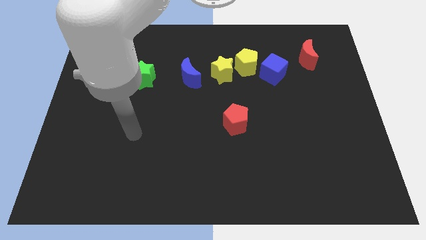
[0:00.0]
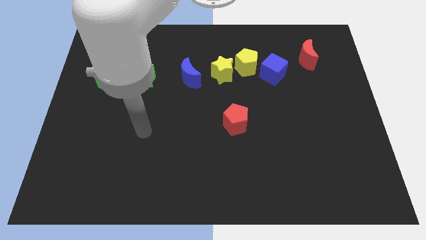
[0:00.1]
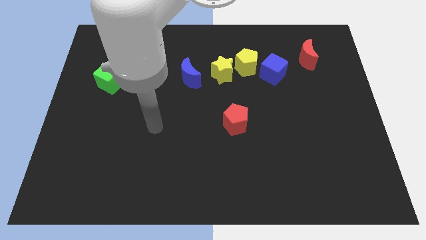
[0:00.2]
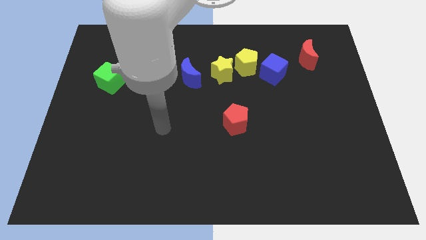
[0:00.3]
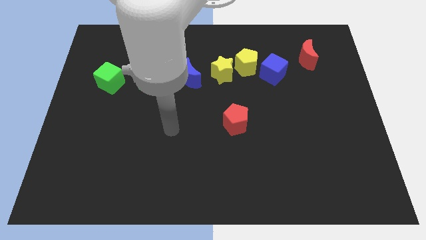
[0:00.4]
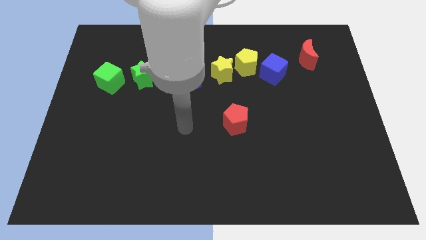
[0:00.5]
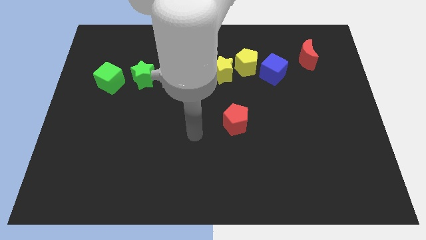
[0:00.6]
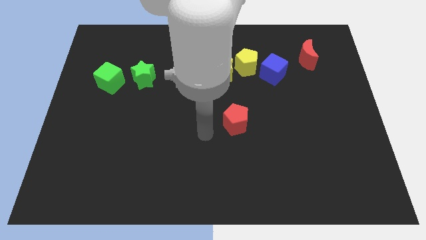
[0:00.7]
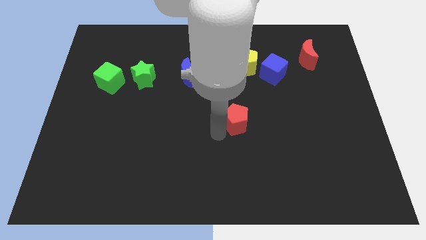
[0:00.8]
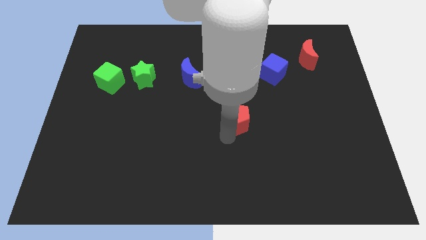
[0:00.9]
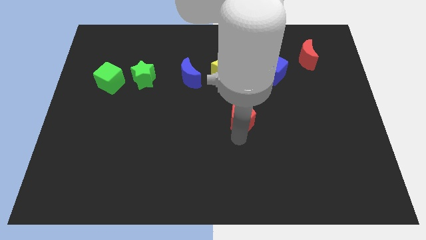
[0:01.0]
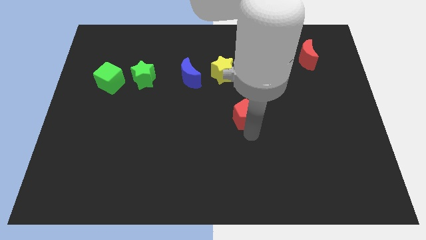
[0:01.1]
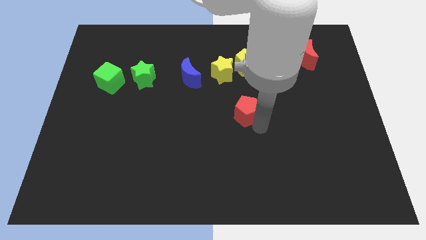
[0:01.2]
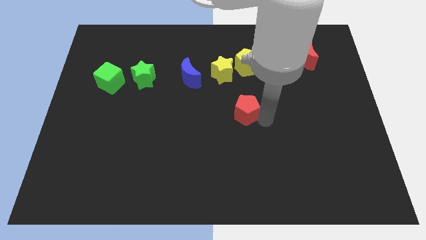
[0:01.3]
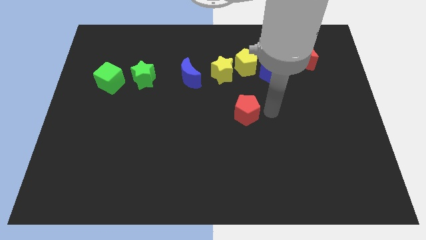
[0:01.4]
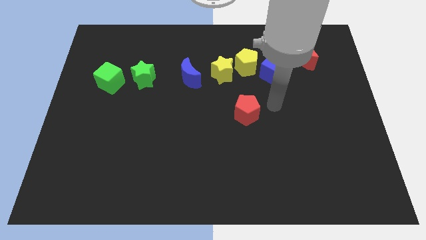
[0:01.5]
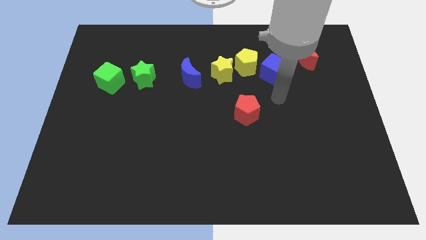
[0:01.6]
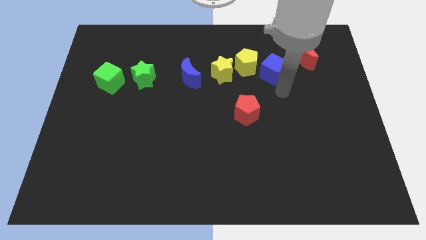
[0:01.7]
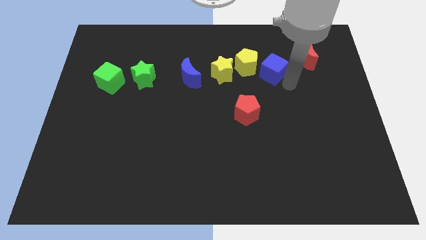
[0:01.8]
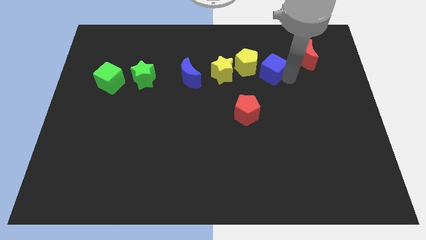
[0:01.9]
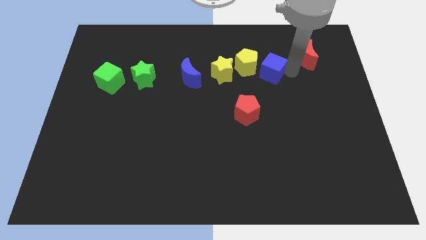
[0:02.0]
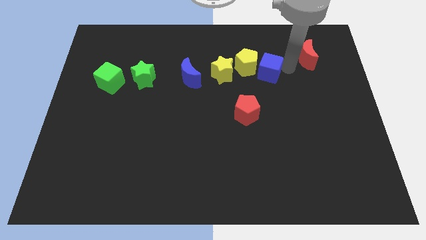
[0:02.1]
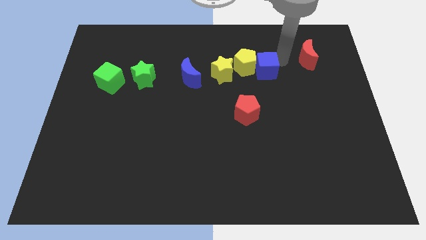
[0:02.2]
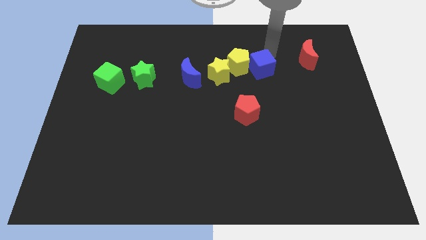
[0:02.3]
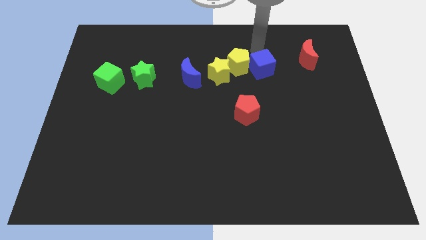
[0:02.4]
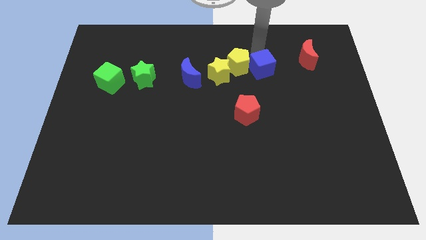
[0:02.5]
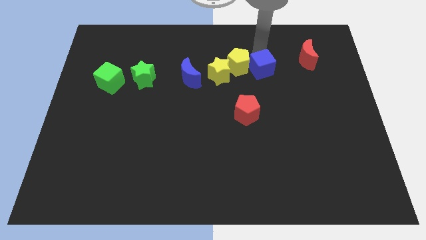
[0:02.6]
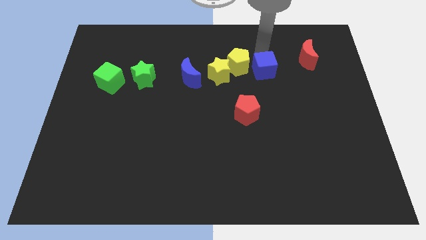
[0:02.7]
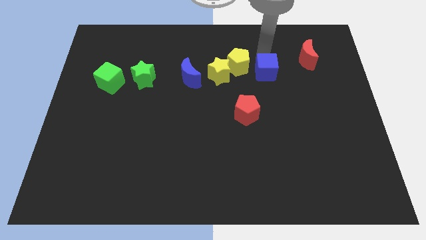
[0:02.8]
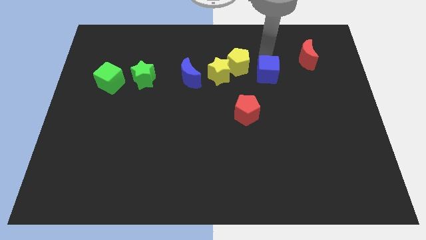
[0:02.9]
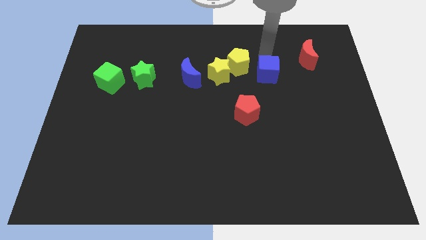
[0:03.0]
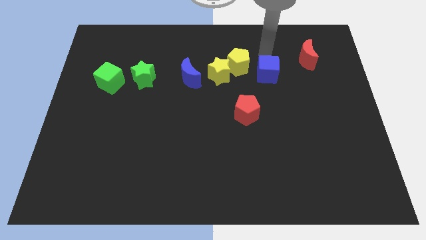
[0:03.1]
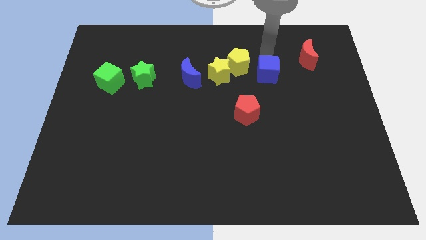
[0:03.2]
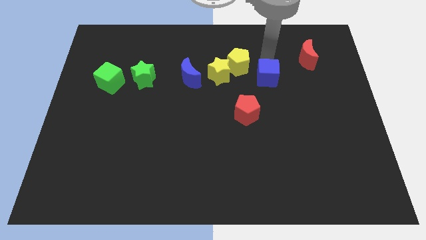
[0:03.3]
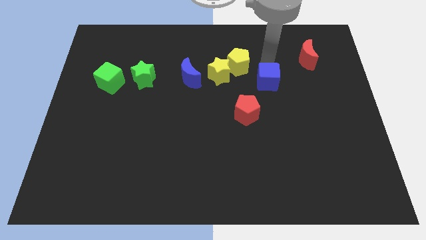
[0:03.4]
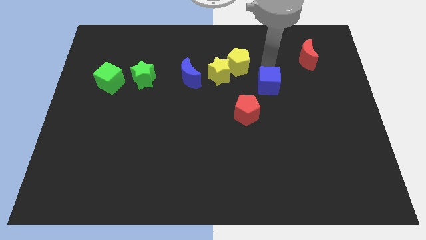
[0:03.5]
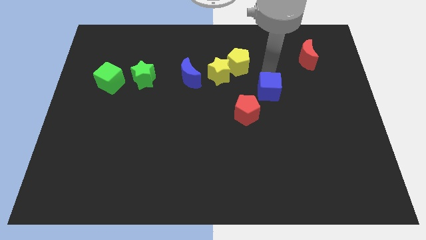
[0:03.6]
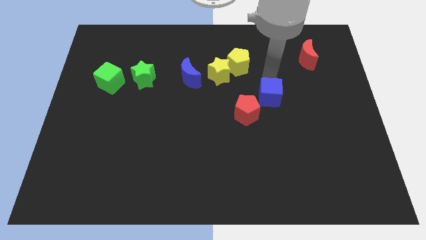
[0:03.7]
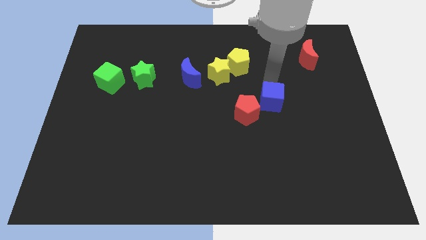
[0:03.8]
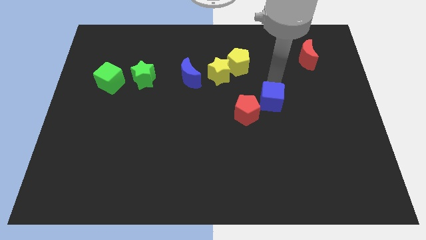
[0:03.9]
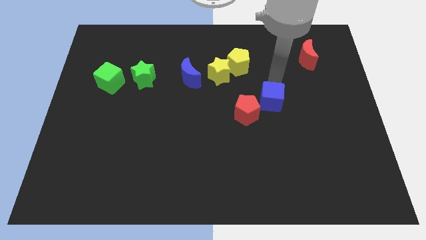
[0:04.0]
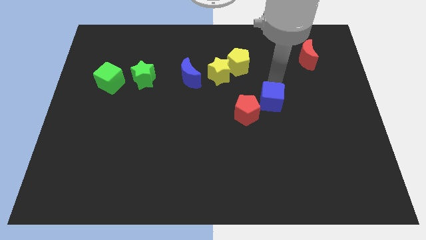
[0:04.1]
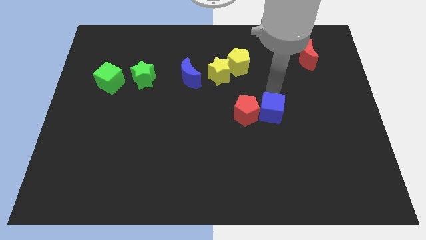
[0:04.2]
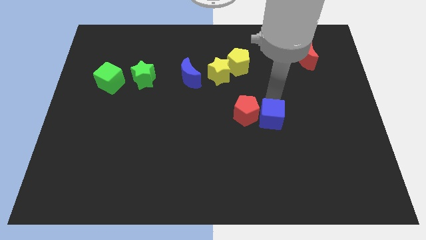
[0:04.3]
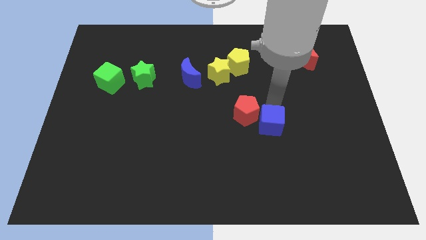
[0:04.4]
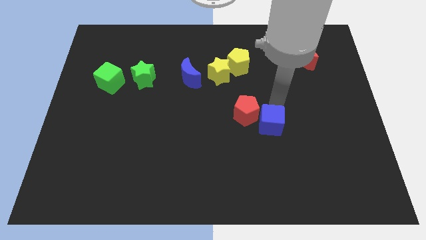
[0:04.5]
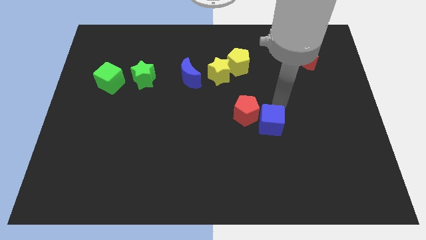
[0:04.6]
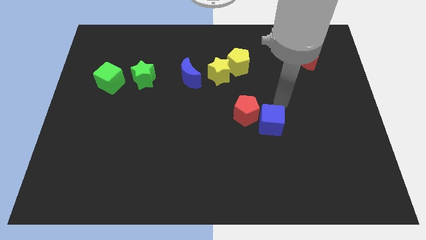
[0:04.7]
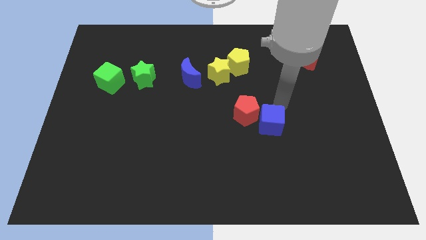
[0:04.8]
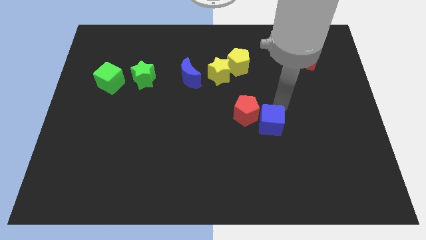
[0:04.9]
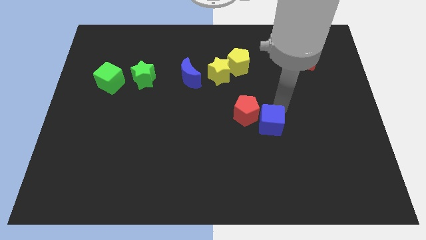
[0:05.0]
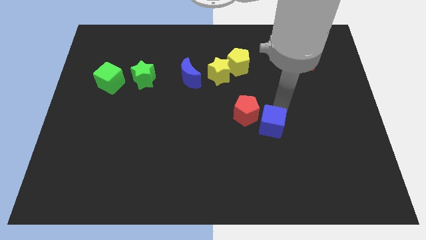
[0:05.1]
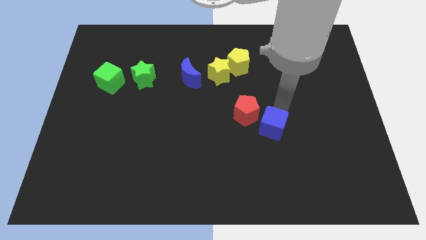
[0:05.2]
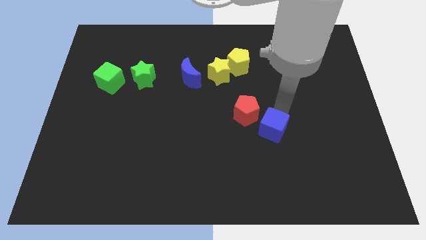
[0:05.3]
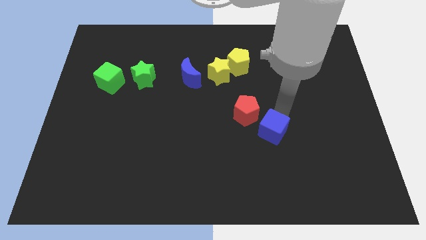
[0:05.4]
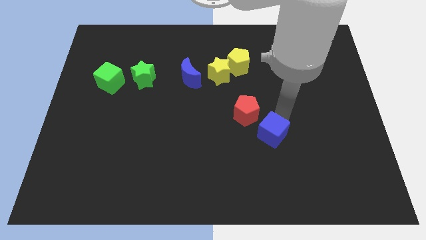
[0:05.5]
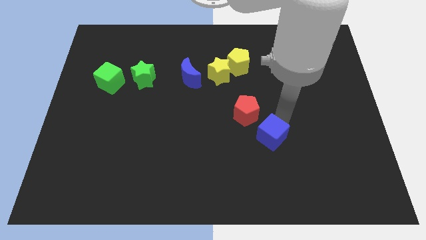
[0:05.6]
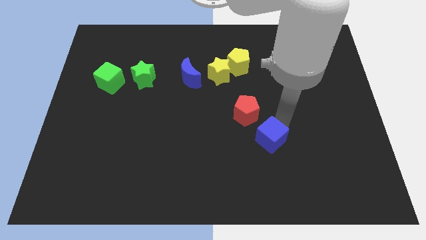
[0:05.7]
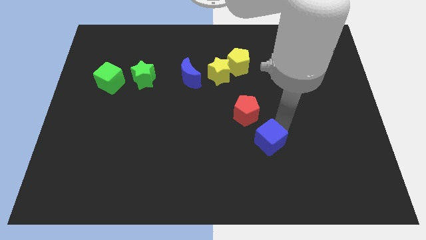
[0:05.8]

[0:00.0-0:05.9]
push the blue cube below the red pentagon

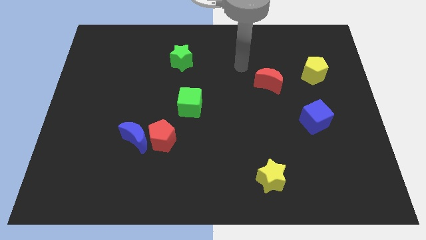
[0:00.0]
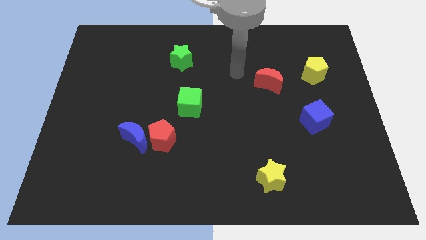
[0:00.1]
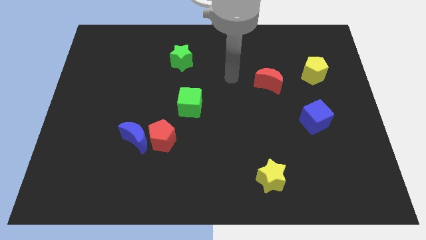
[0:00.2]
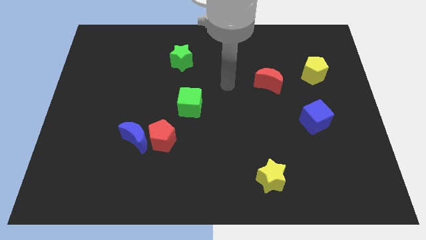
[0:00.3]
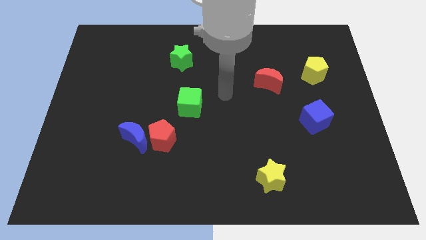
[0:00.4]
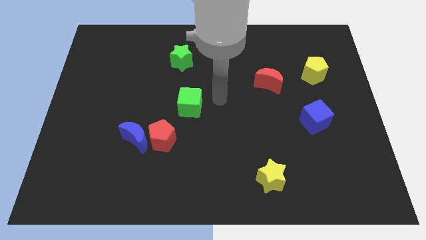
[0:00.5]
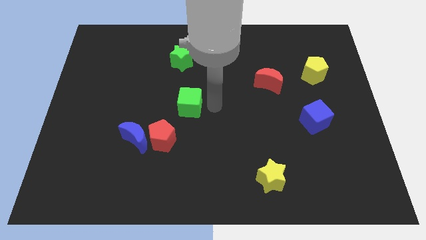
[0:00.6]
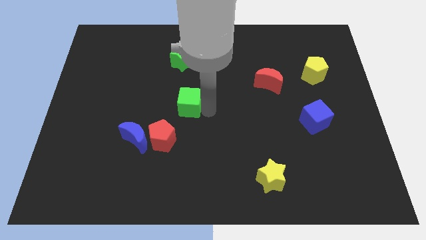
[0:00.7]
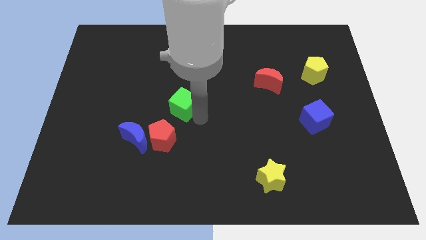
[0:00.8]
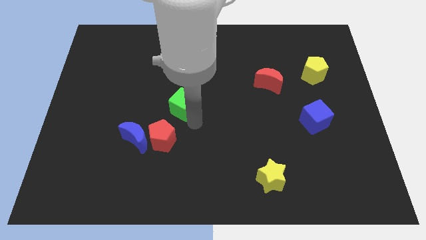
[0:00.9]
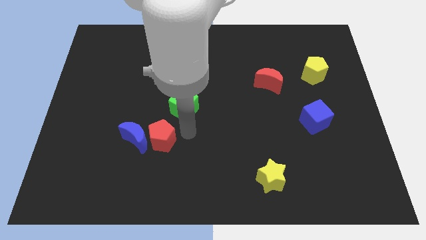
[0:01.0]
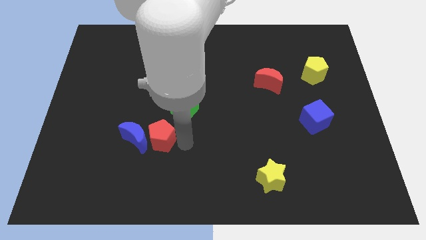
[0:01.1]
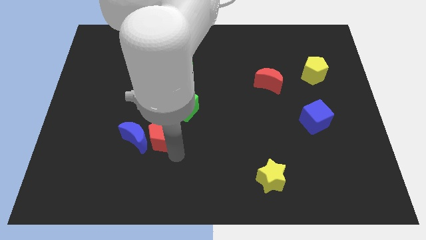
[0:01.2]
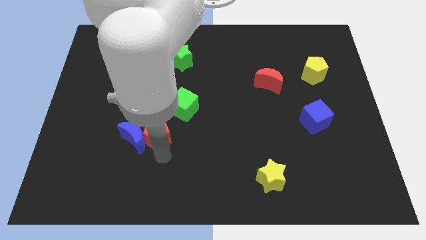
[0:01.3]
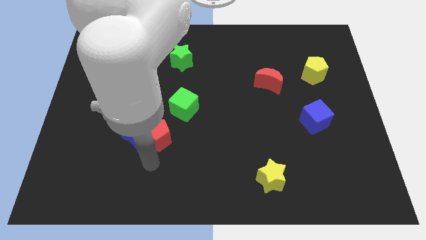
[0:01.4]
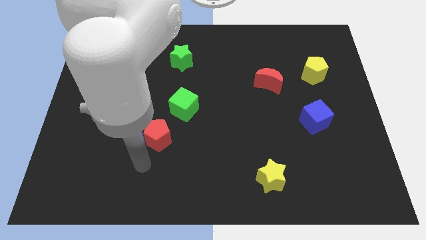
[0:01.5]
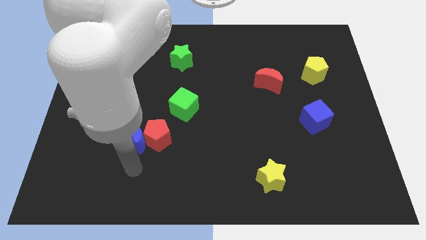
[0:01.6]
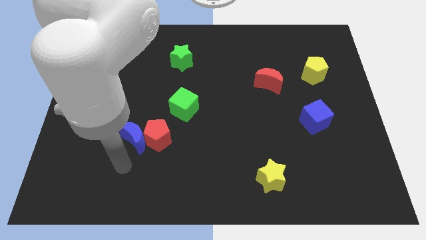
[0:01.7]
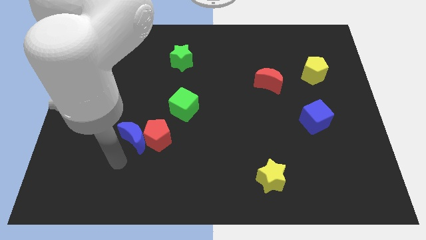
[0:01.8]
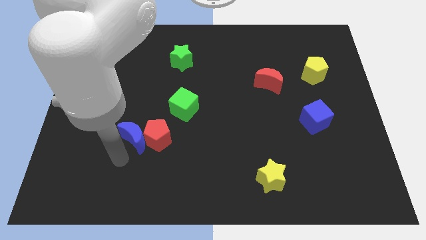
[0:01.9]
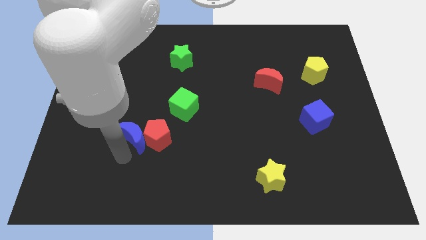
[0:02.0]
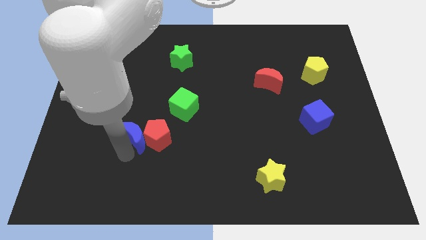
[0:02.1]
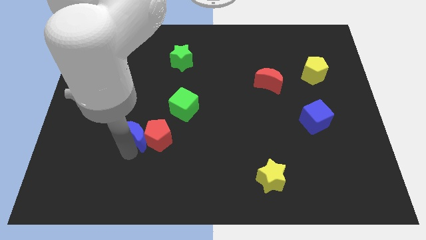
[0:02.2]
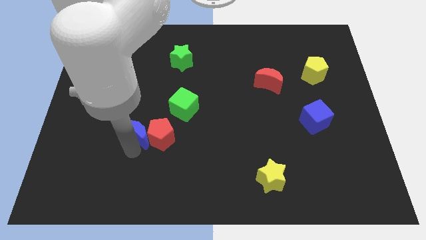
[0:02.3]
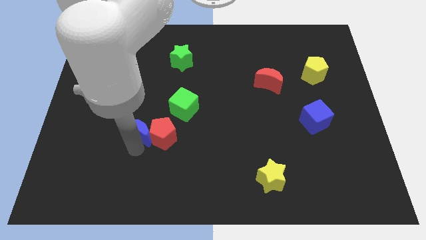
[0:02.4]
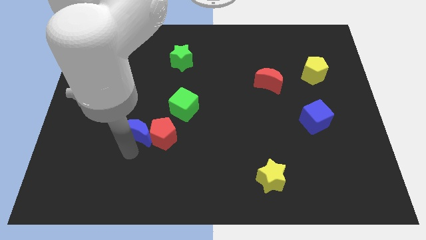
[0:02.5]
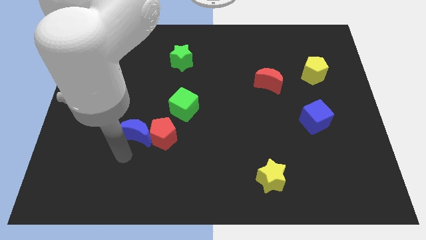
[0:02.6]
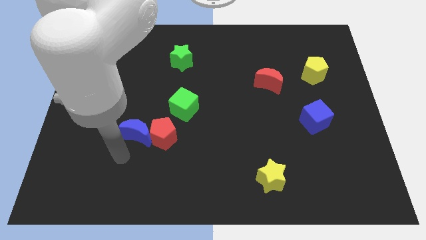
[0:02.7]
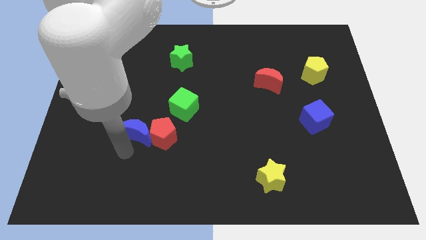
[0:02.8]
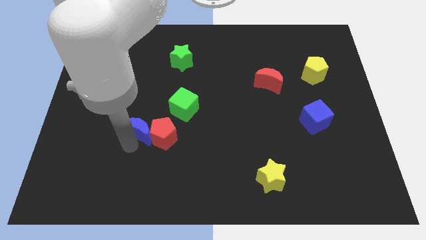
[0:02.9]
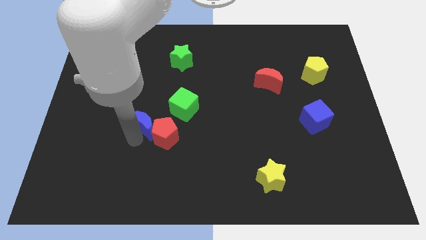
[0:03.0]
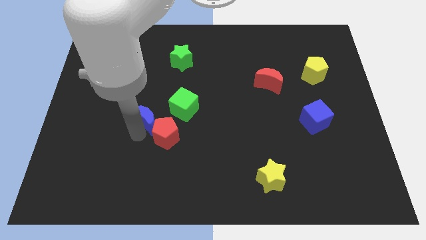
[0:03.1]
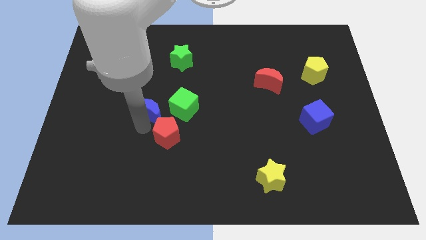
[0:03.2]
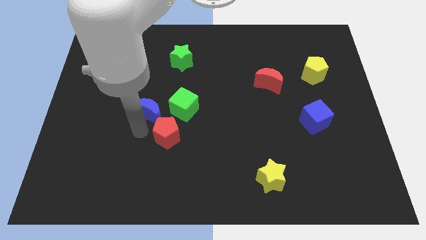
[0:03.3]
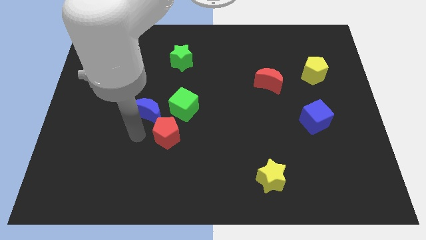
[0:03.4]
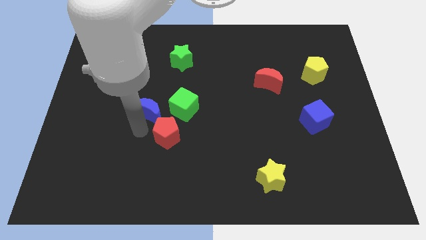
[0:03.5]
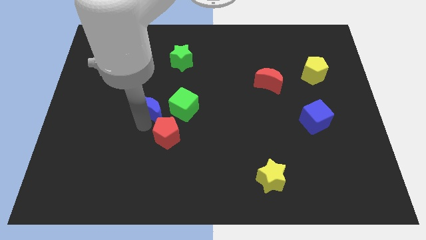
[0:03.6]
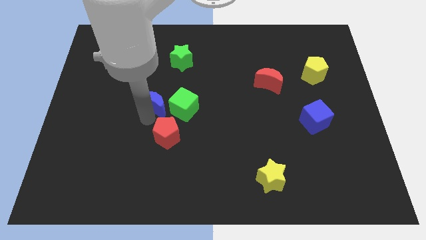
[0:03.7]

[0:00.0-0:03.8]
slide the blue moon to the top left side of the green cube
